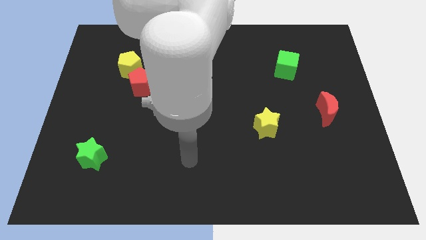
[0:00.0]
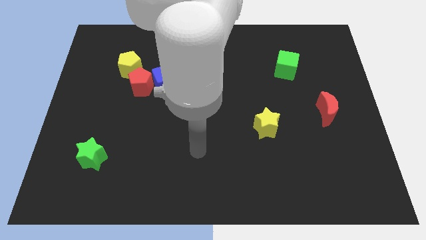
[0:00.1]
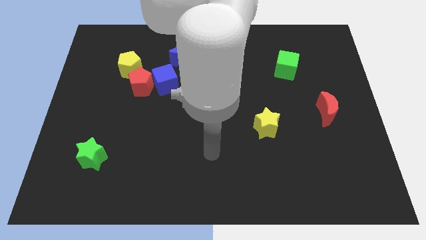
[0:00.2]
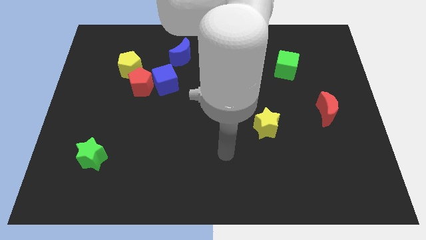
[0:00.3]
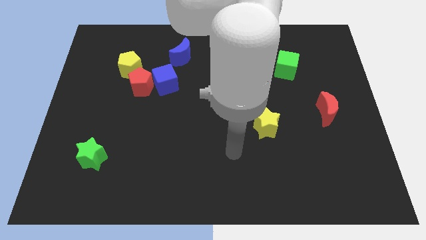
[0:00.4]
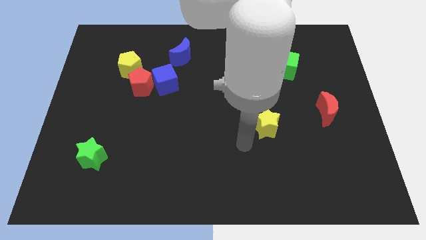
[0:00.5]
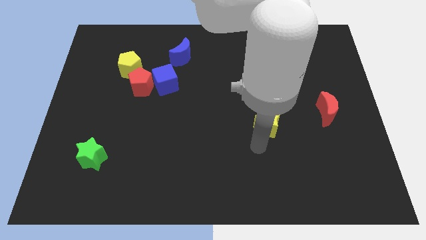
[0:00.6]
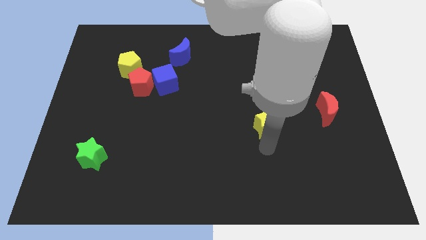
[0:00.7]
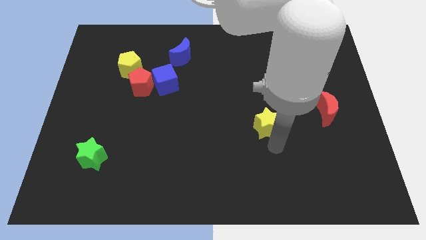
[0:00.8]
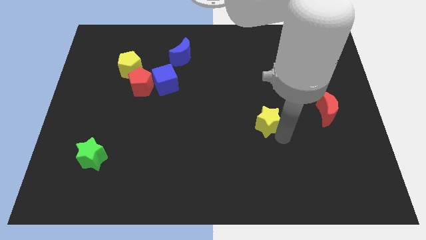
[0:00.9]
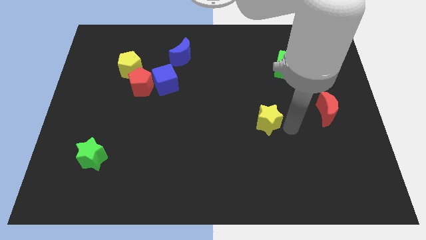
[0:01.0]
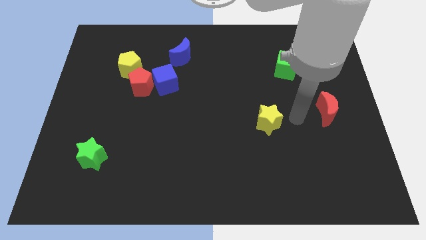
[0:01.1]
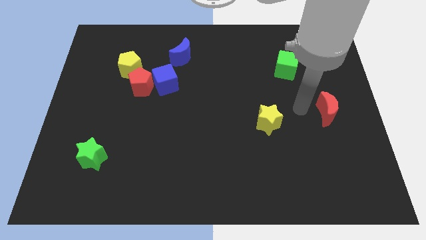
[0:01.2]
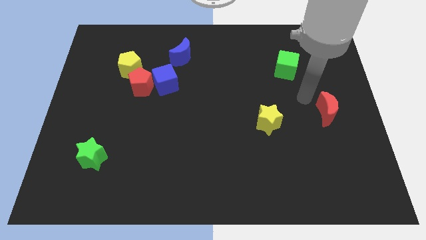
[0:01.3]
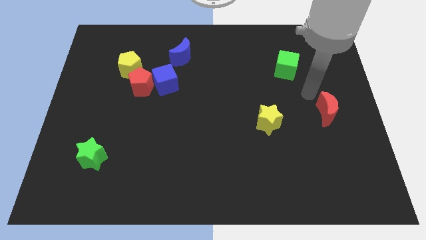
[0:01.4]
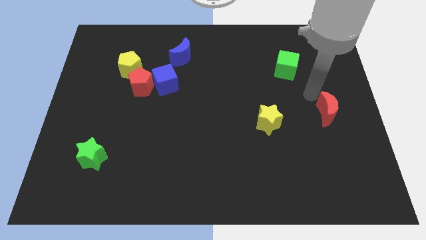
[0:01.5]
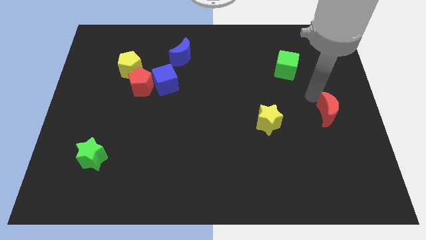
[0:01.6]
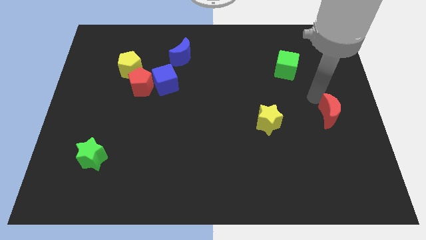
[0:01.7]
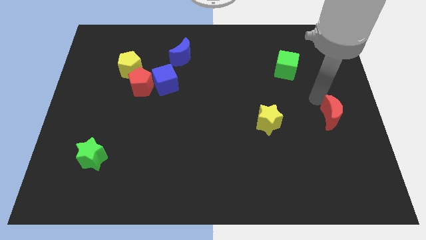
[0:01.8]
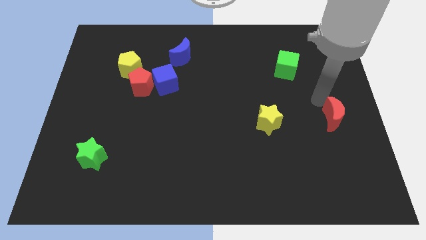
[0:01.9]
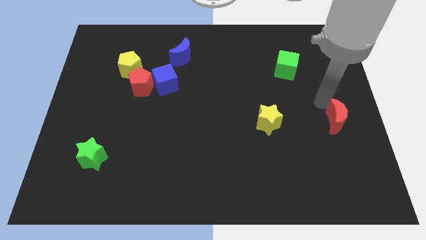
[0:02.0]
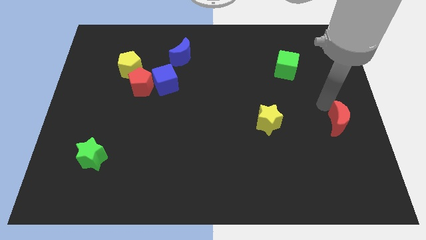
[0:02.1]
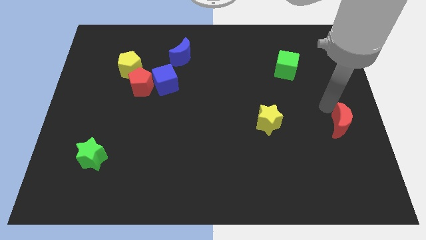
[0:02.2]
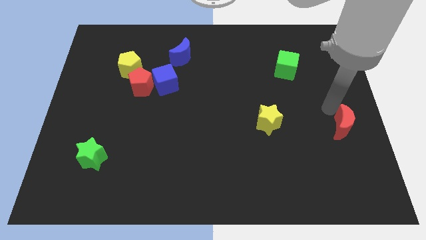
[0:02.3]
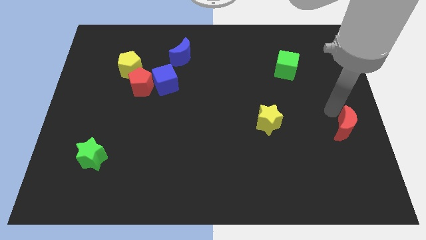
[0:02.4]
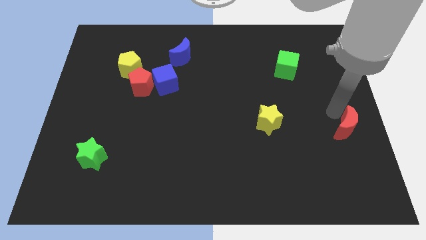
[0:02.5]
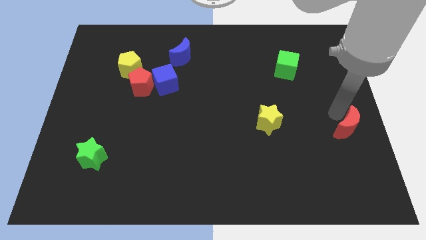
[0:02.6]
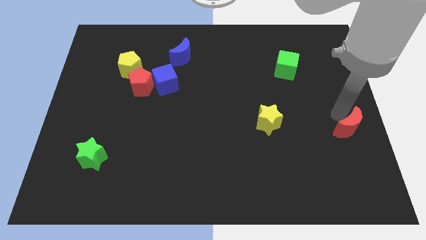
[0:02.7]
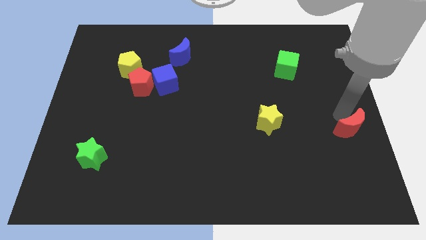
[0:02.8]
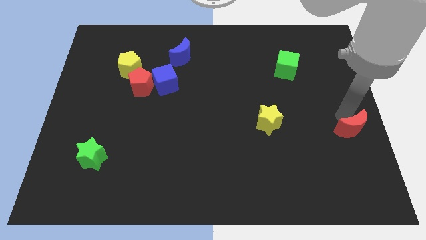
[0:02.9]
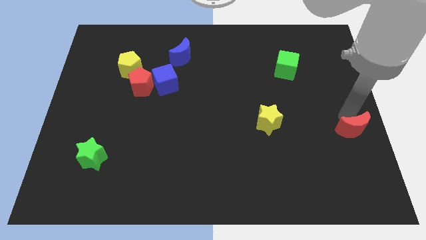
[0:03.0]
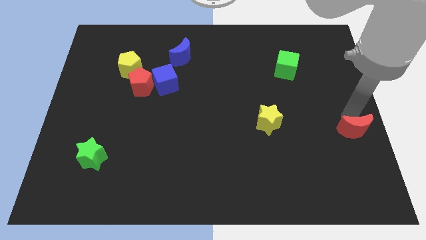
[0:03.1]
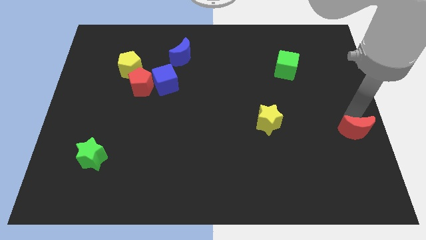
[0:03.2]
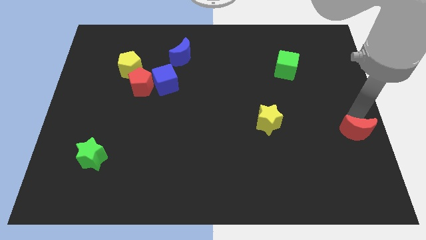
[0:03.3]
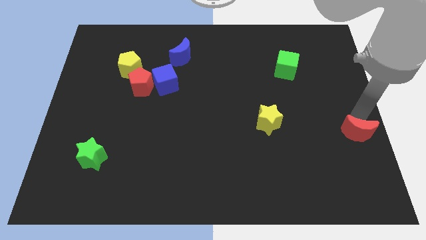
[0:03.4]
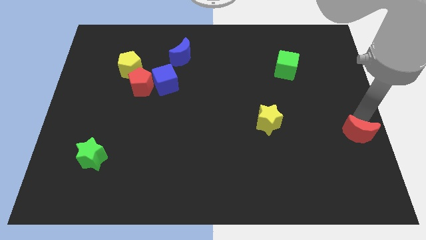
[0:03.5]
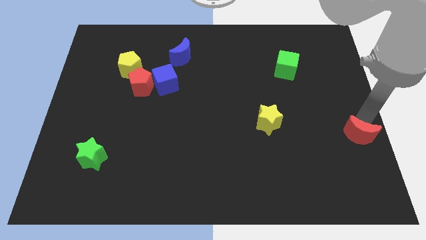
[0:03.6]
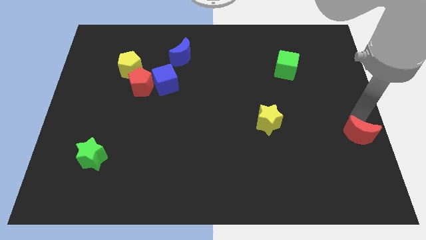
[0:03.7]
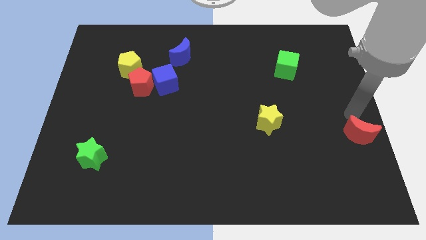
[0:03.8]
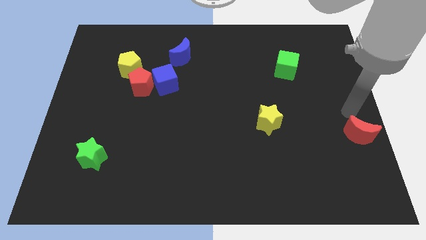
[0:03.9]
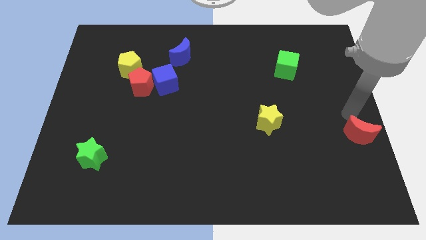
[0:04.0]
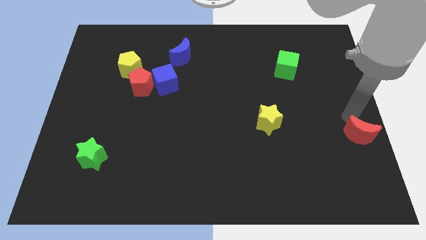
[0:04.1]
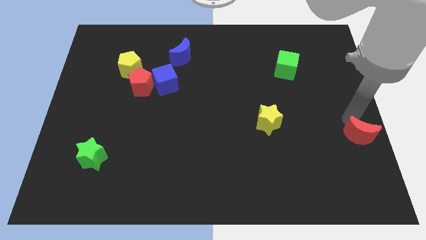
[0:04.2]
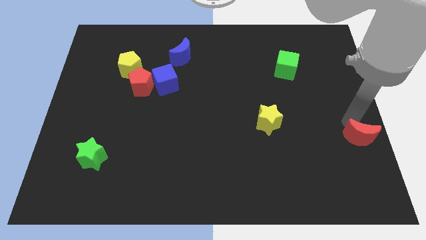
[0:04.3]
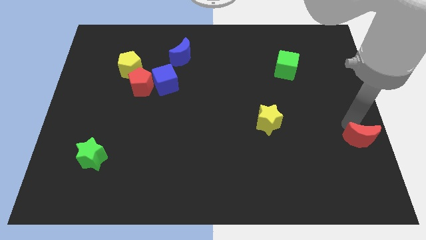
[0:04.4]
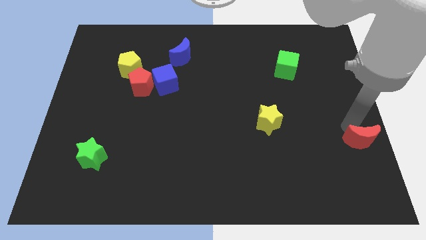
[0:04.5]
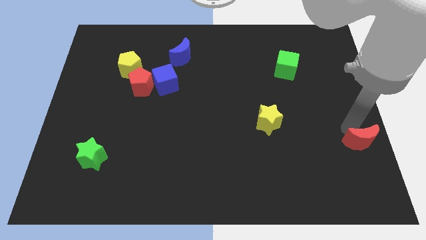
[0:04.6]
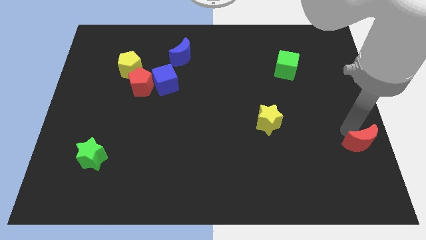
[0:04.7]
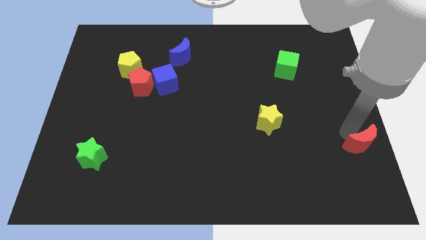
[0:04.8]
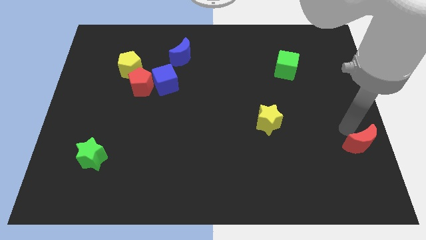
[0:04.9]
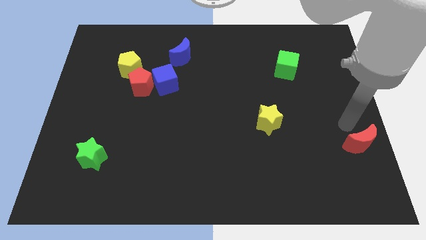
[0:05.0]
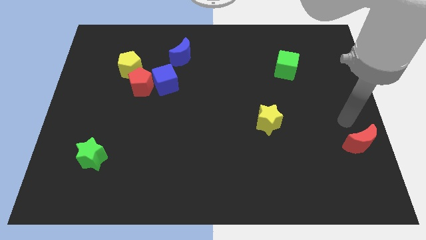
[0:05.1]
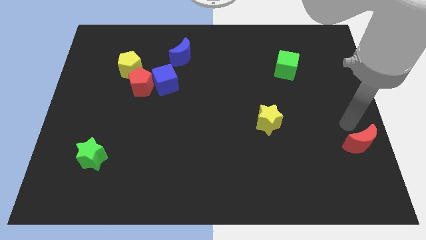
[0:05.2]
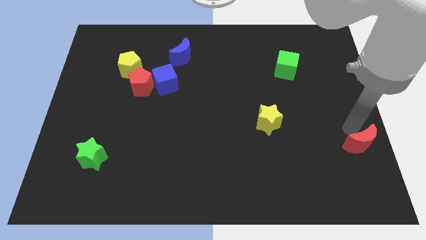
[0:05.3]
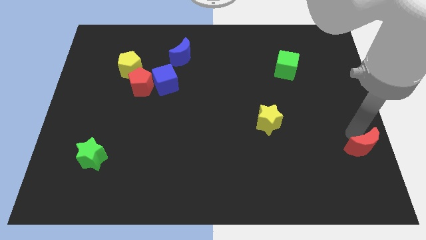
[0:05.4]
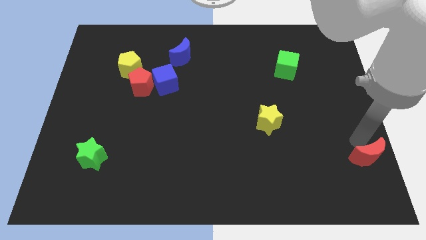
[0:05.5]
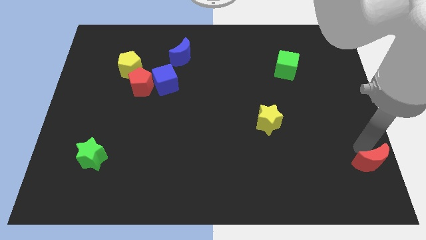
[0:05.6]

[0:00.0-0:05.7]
push the red moon to the bottom right of the board
